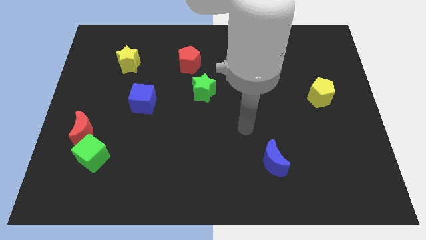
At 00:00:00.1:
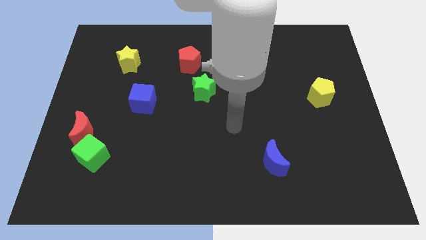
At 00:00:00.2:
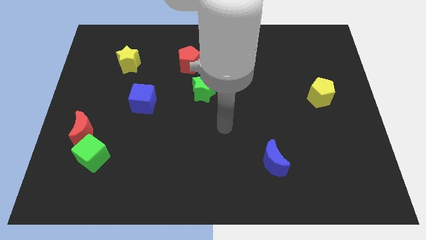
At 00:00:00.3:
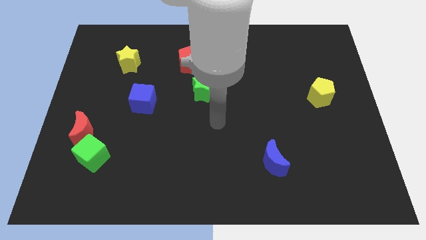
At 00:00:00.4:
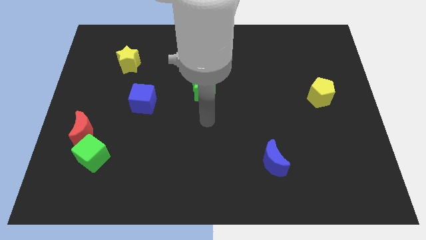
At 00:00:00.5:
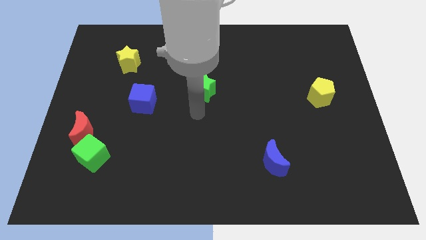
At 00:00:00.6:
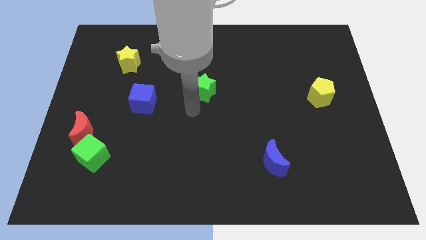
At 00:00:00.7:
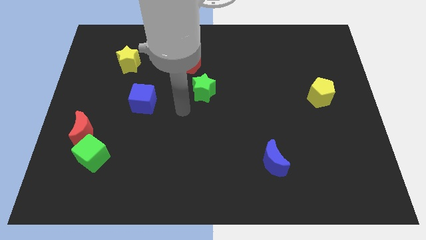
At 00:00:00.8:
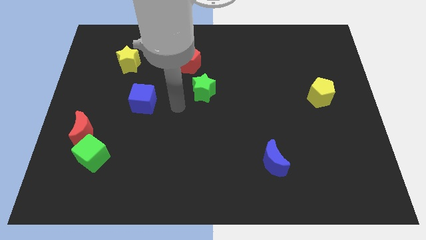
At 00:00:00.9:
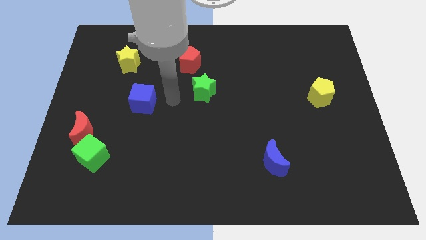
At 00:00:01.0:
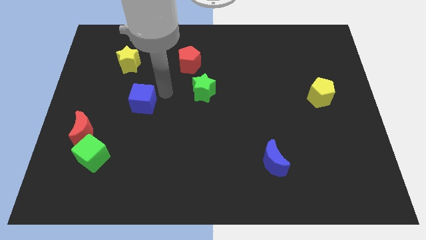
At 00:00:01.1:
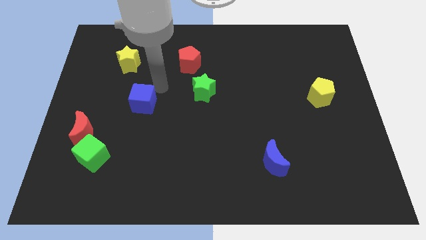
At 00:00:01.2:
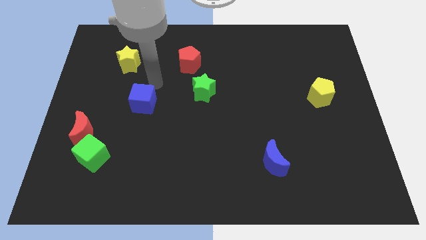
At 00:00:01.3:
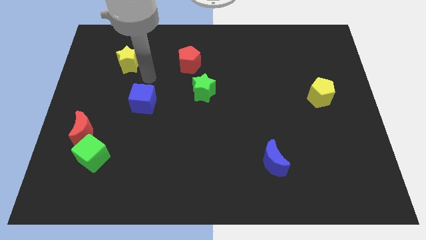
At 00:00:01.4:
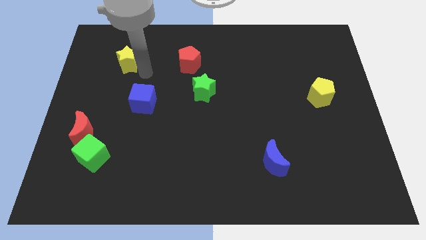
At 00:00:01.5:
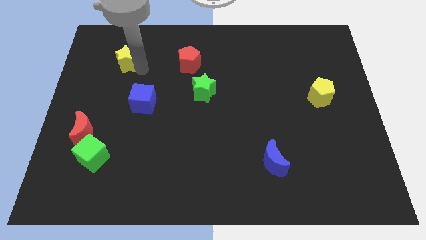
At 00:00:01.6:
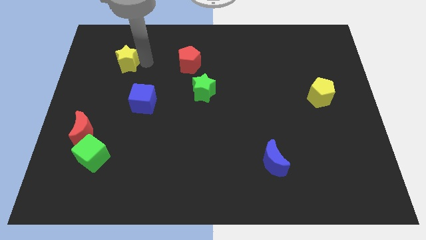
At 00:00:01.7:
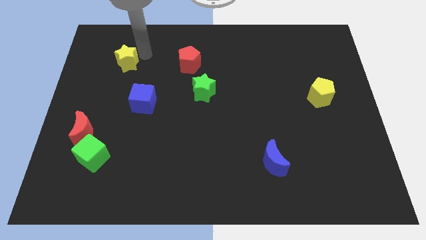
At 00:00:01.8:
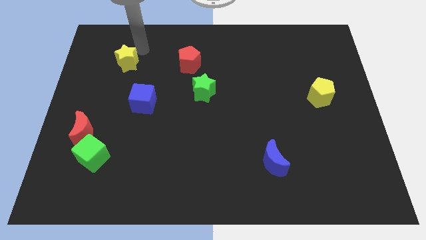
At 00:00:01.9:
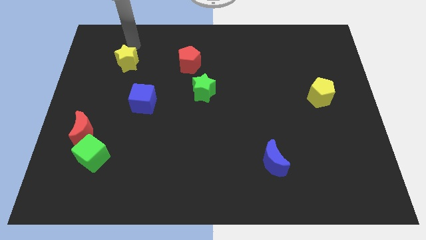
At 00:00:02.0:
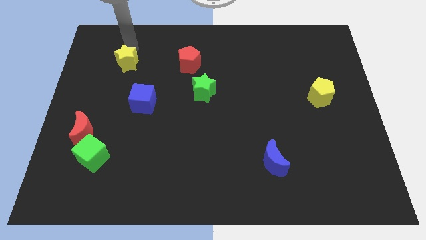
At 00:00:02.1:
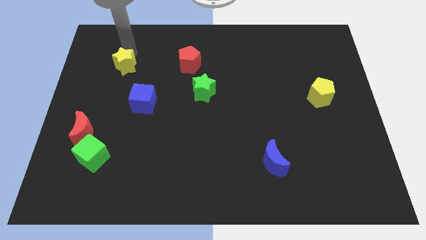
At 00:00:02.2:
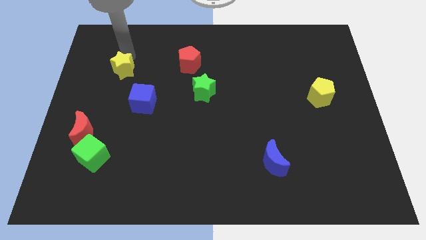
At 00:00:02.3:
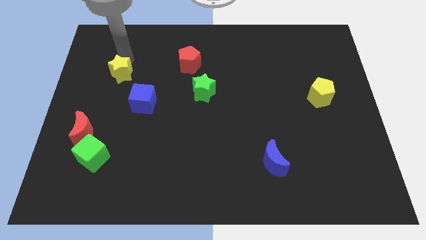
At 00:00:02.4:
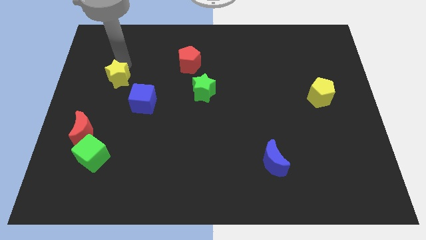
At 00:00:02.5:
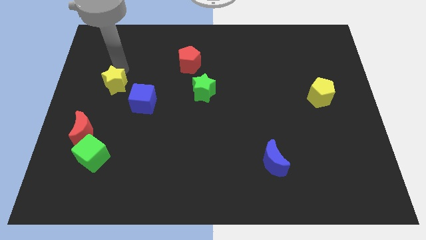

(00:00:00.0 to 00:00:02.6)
slightly slide the yellow star down

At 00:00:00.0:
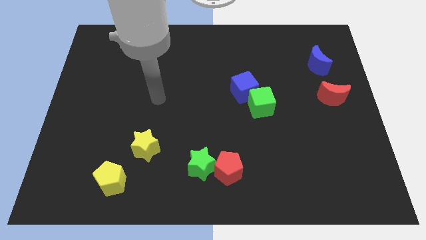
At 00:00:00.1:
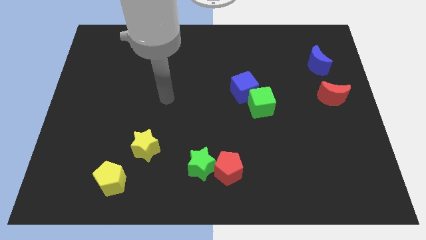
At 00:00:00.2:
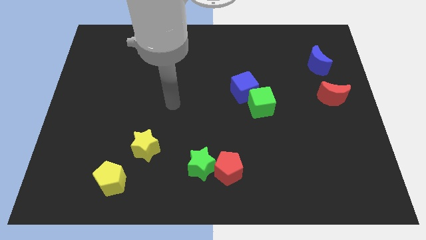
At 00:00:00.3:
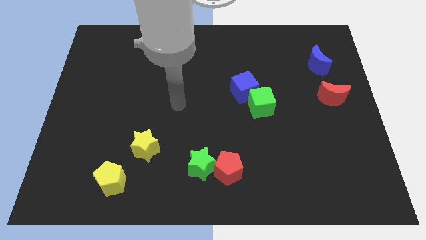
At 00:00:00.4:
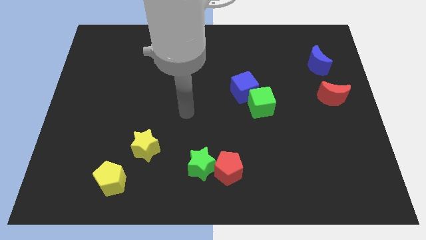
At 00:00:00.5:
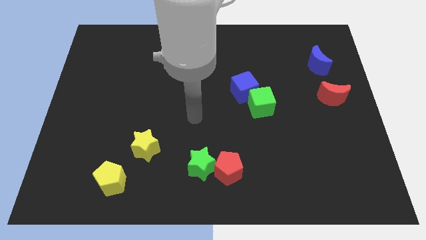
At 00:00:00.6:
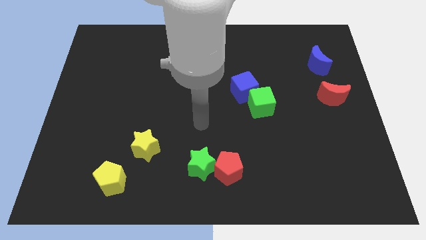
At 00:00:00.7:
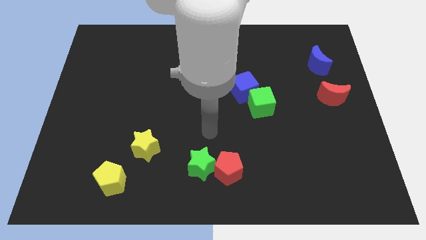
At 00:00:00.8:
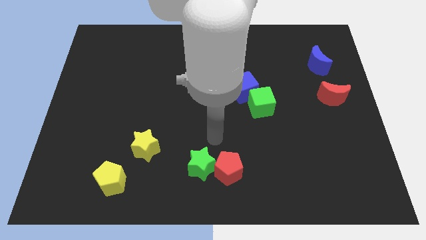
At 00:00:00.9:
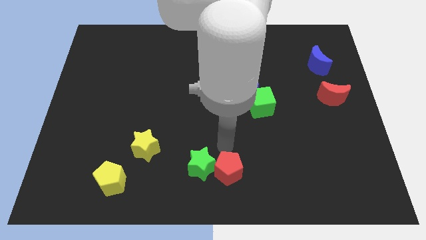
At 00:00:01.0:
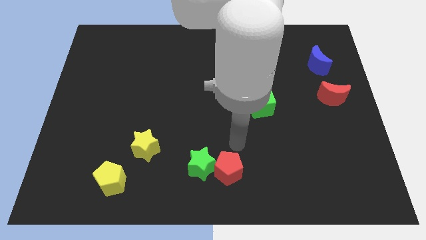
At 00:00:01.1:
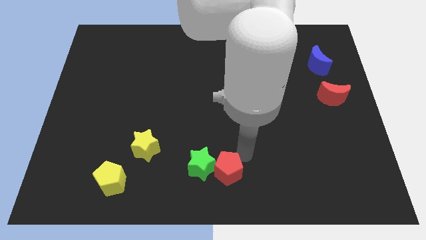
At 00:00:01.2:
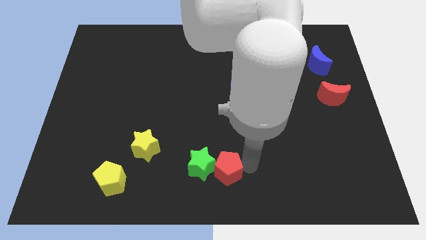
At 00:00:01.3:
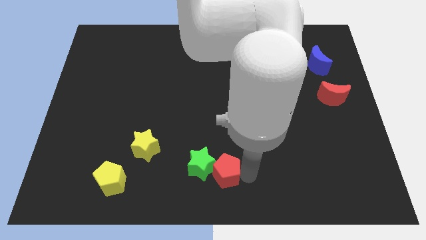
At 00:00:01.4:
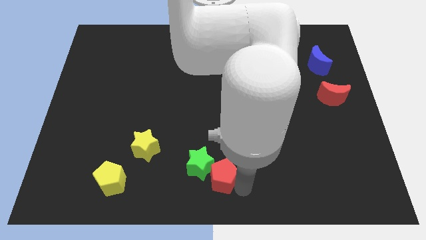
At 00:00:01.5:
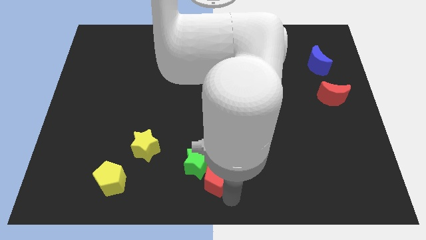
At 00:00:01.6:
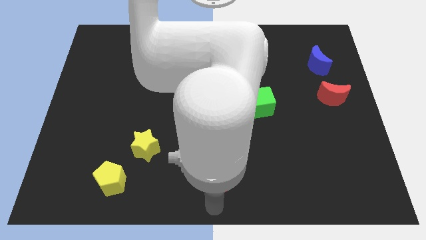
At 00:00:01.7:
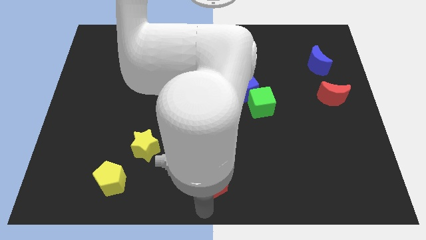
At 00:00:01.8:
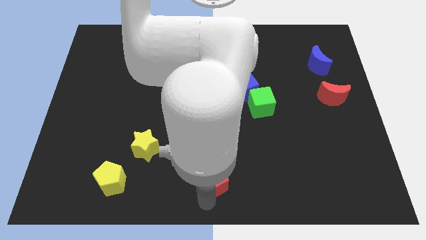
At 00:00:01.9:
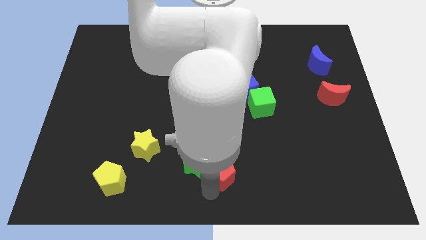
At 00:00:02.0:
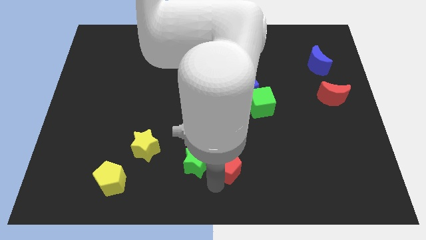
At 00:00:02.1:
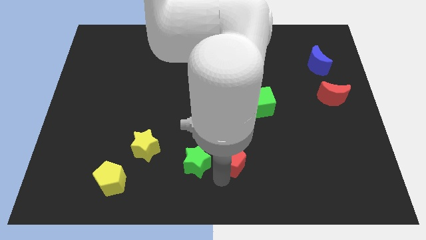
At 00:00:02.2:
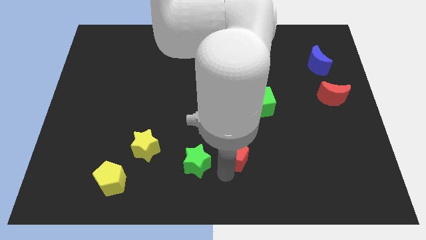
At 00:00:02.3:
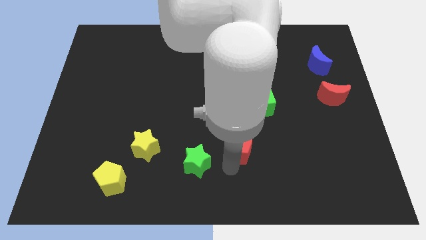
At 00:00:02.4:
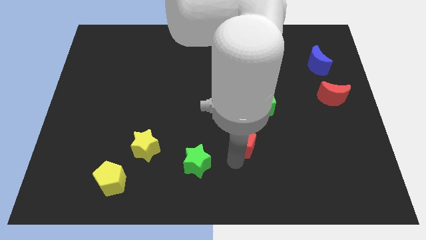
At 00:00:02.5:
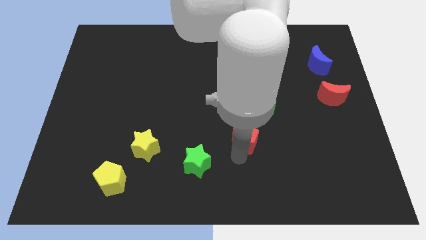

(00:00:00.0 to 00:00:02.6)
slightly push the red pentagon up

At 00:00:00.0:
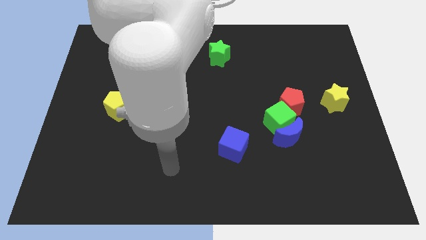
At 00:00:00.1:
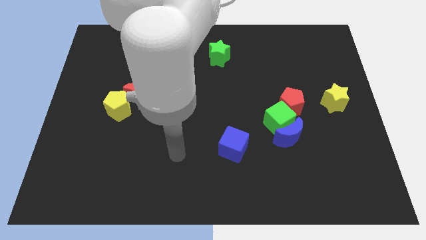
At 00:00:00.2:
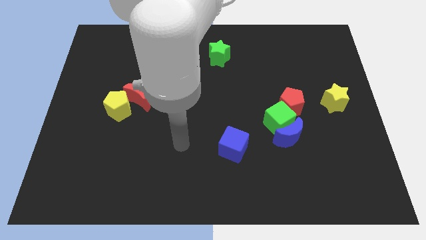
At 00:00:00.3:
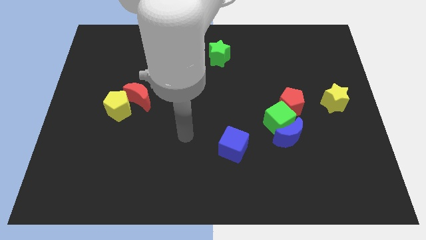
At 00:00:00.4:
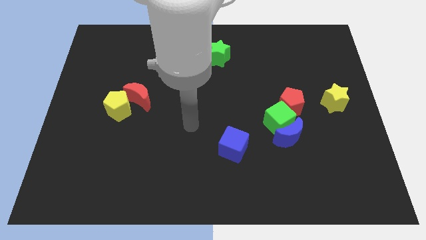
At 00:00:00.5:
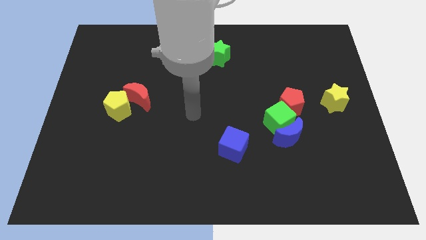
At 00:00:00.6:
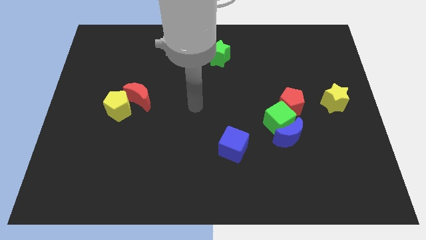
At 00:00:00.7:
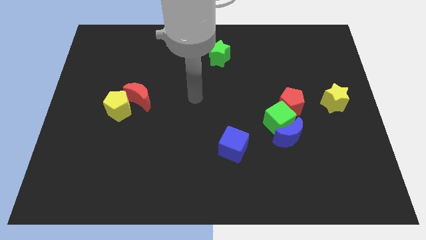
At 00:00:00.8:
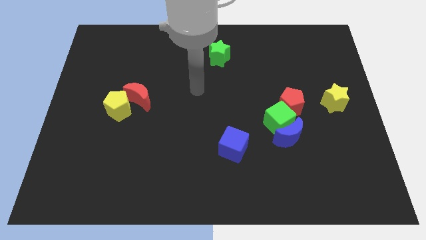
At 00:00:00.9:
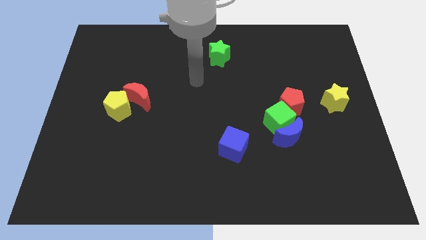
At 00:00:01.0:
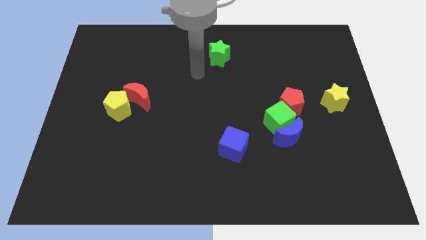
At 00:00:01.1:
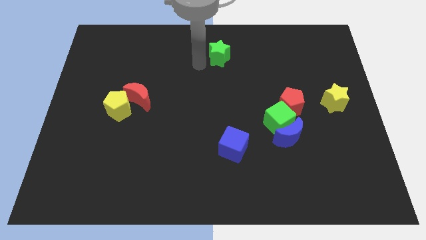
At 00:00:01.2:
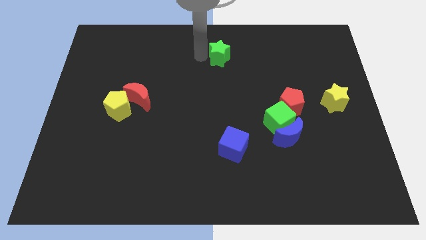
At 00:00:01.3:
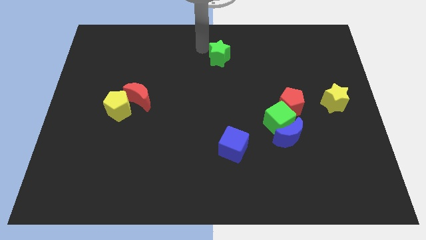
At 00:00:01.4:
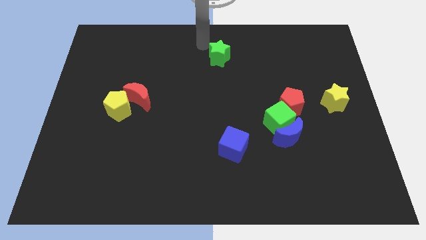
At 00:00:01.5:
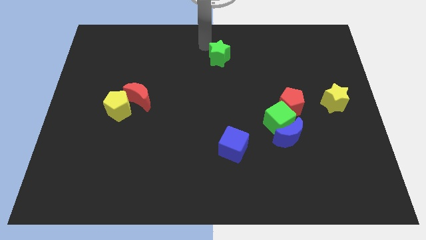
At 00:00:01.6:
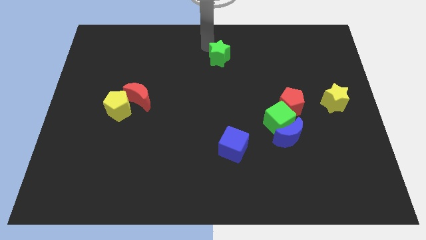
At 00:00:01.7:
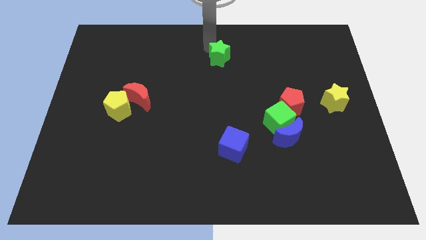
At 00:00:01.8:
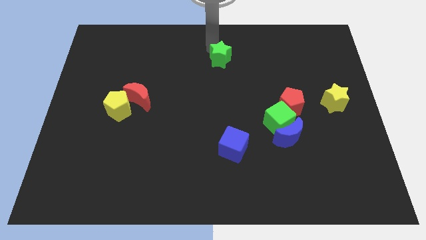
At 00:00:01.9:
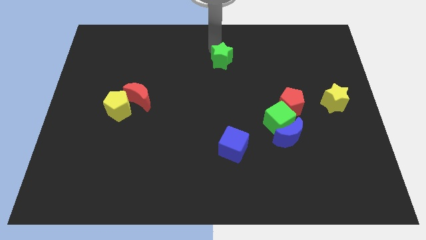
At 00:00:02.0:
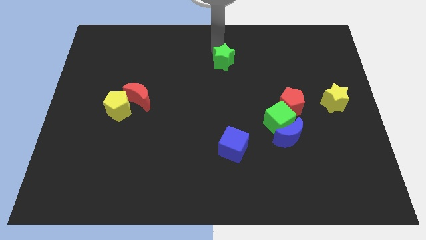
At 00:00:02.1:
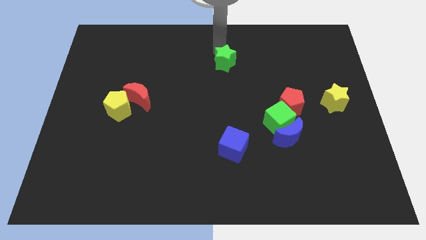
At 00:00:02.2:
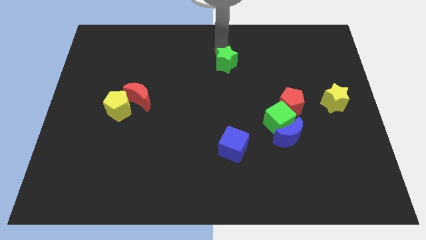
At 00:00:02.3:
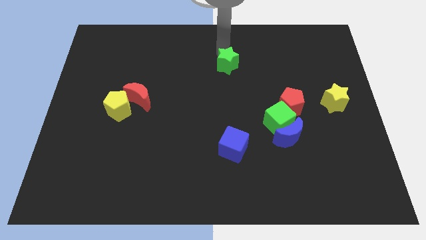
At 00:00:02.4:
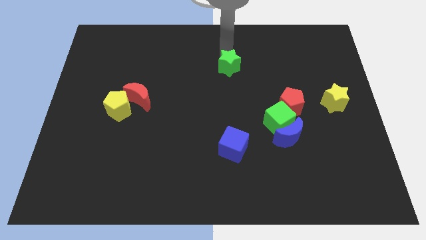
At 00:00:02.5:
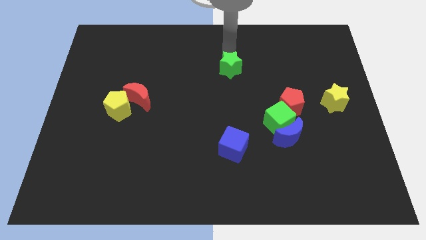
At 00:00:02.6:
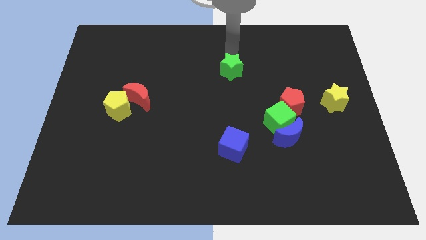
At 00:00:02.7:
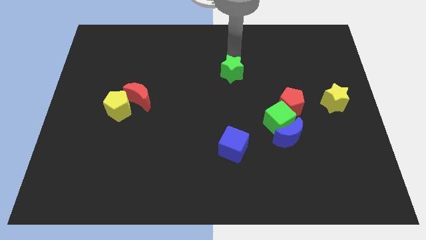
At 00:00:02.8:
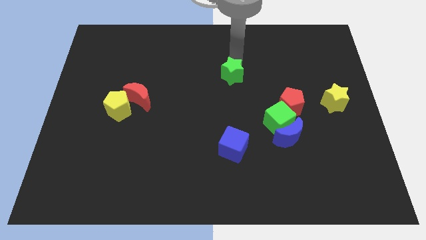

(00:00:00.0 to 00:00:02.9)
move the green star diagonally down and to the right a little

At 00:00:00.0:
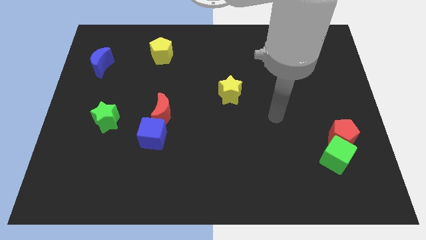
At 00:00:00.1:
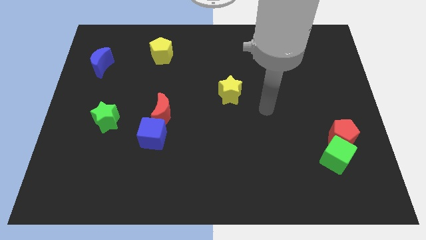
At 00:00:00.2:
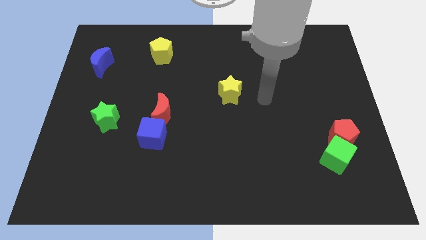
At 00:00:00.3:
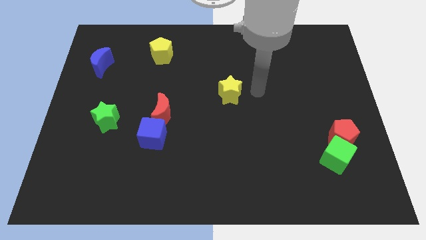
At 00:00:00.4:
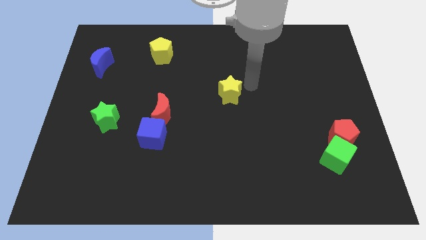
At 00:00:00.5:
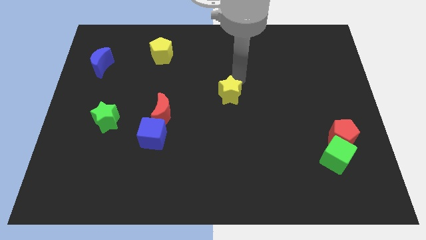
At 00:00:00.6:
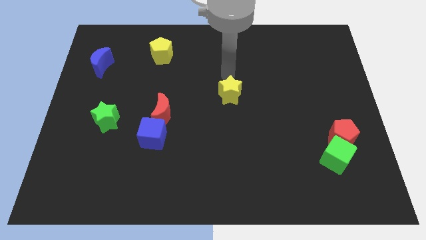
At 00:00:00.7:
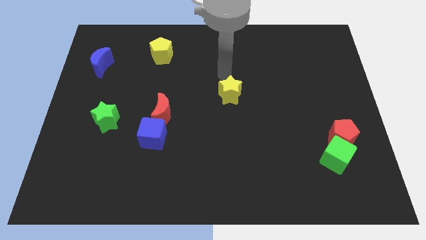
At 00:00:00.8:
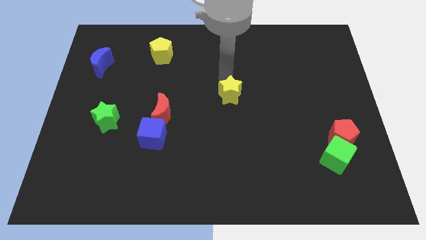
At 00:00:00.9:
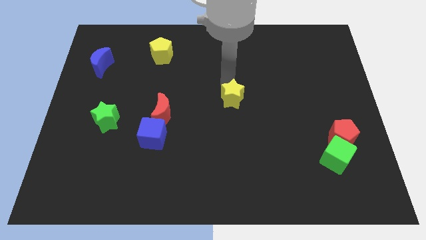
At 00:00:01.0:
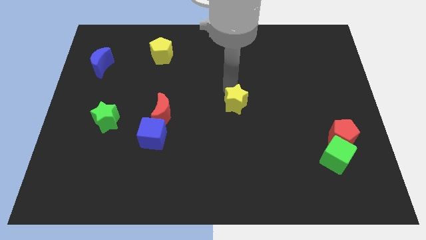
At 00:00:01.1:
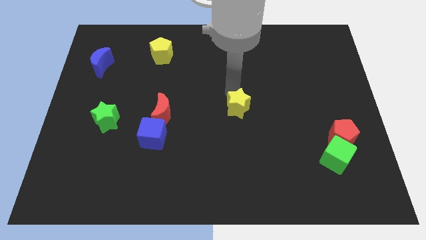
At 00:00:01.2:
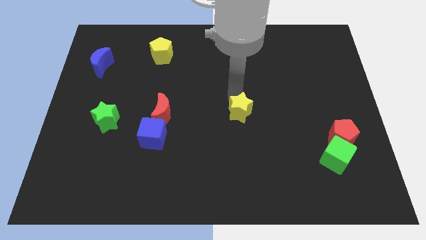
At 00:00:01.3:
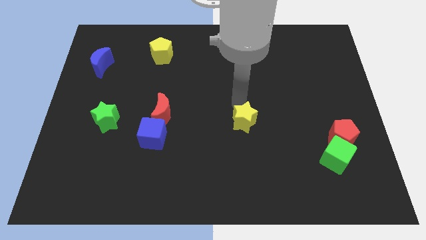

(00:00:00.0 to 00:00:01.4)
slightly move the yellow star down
